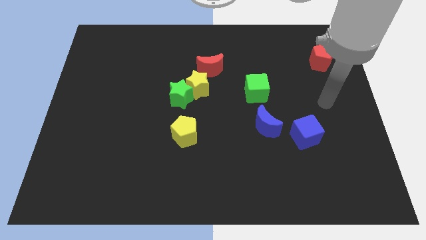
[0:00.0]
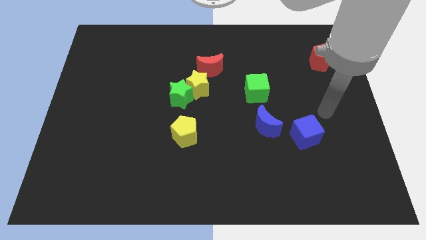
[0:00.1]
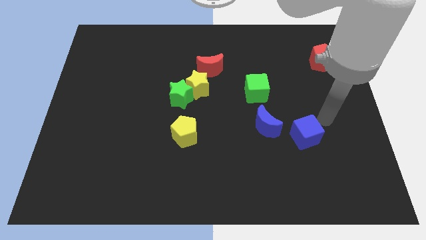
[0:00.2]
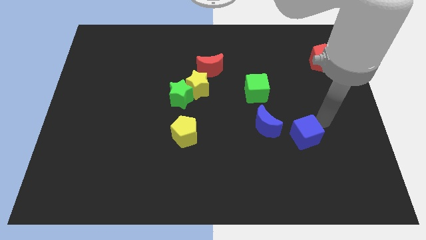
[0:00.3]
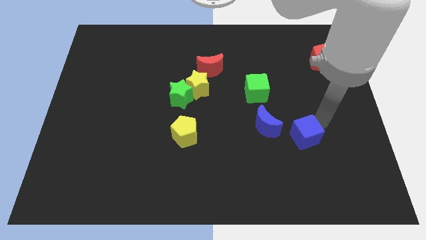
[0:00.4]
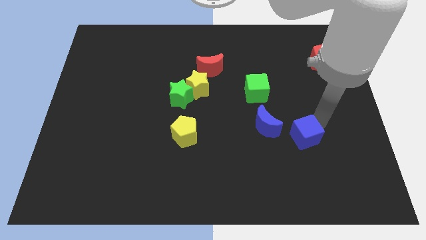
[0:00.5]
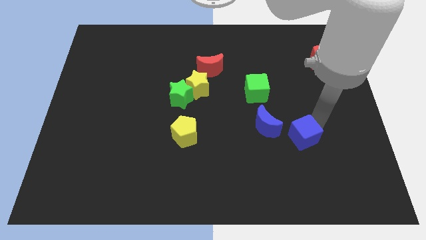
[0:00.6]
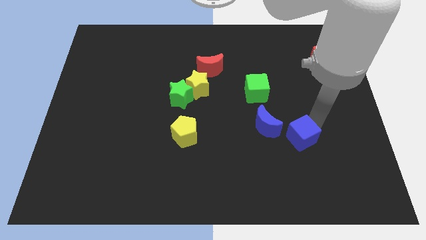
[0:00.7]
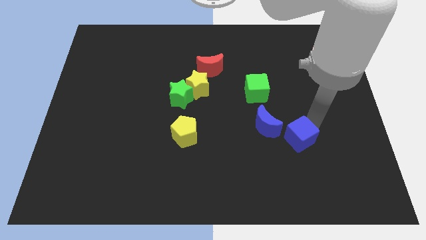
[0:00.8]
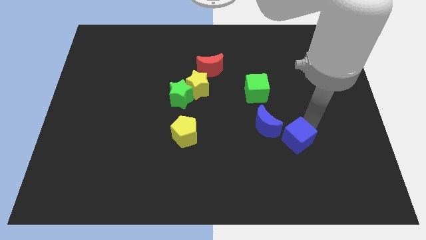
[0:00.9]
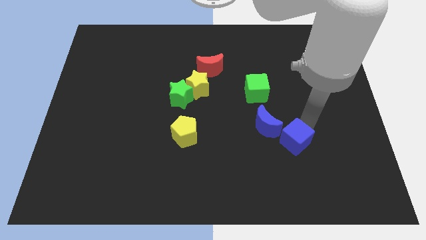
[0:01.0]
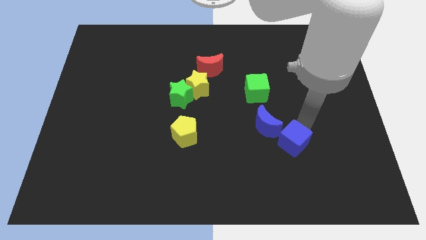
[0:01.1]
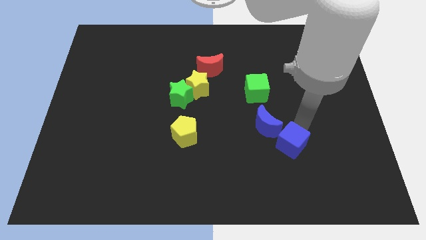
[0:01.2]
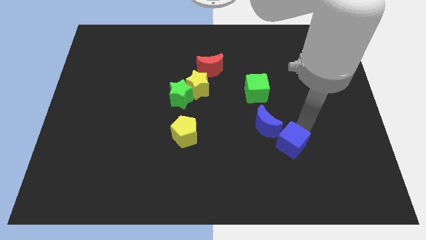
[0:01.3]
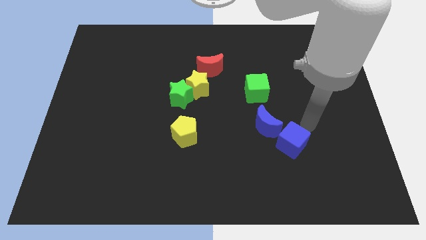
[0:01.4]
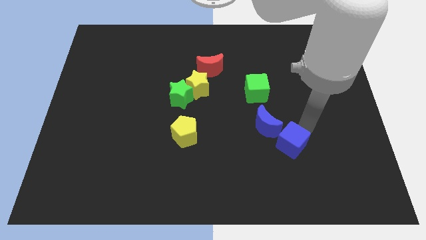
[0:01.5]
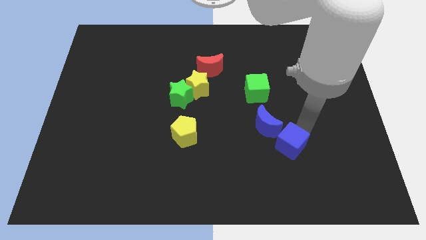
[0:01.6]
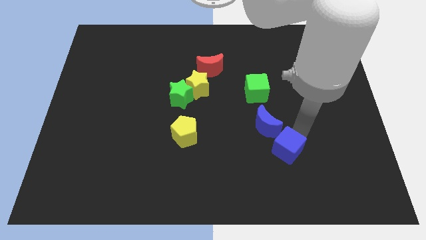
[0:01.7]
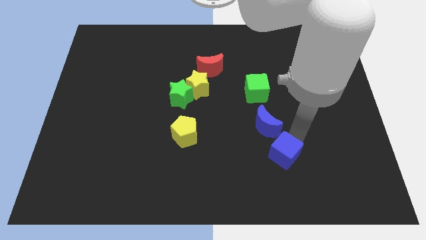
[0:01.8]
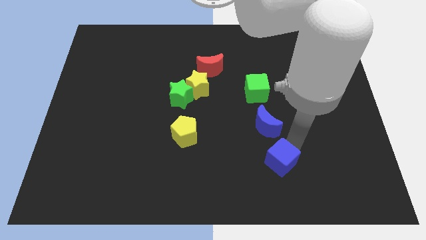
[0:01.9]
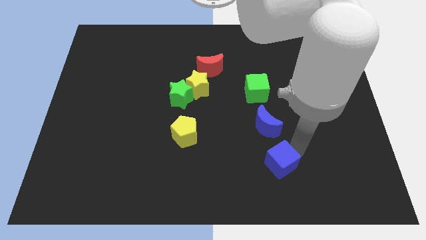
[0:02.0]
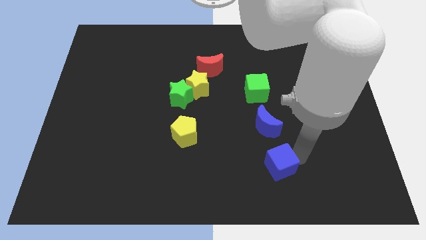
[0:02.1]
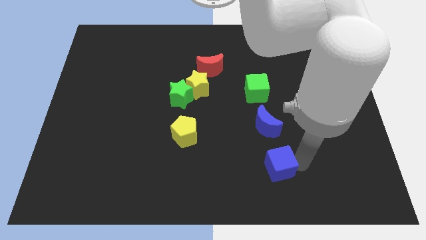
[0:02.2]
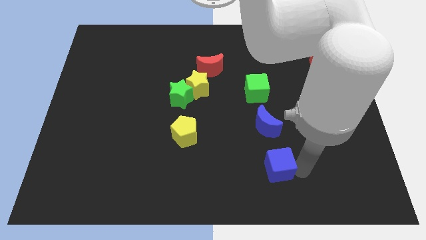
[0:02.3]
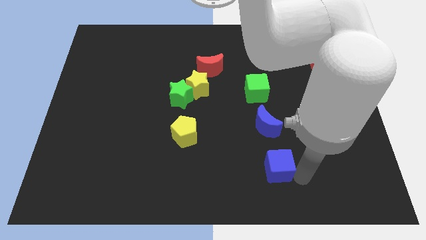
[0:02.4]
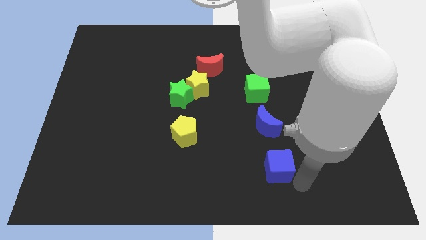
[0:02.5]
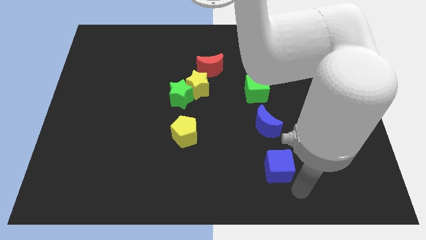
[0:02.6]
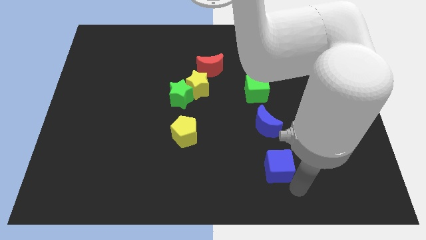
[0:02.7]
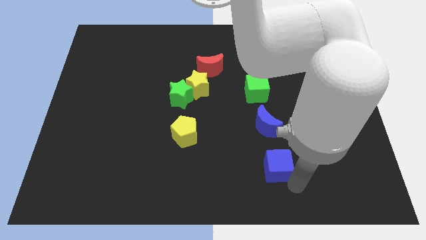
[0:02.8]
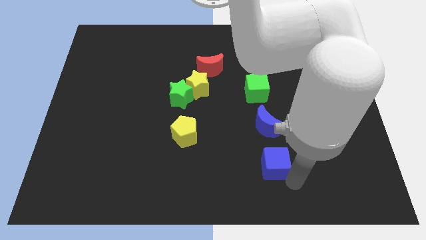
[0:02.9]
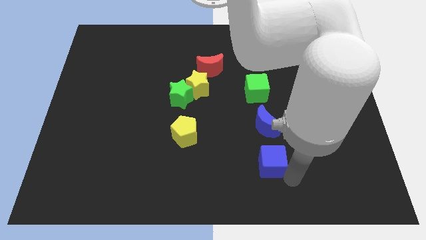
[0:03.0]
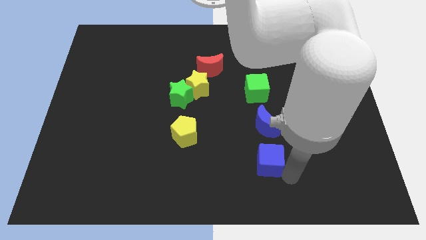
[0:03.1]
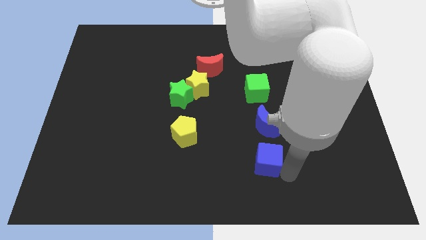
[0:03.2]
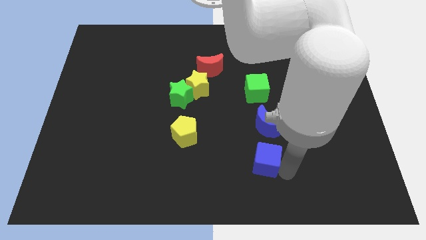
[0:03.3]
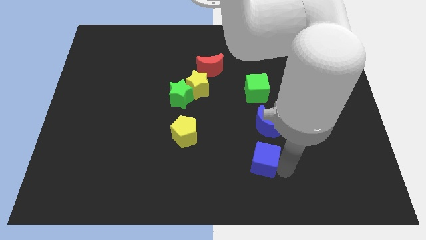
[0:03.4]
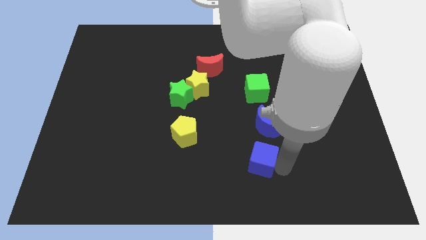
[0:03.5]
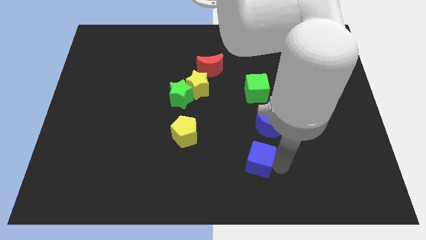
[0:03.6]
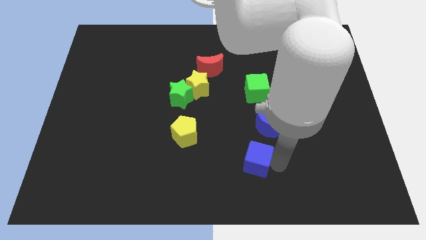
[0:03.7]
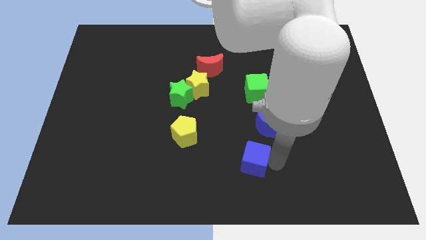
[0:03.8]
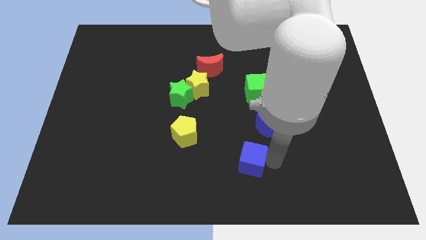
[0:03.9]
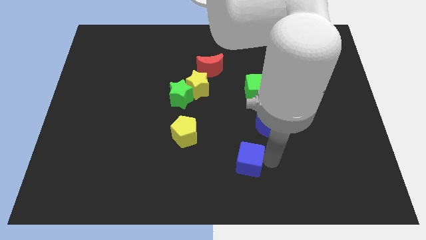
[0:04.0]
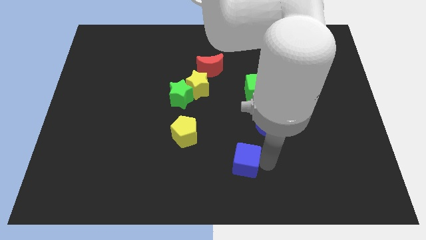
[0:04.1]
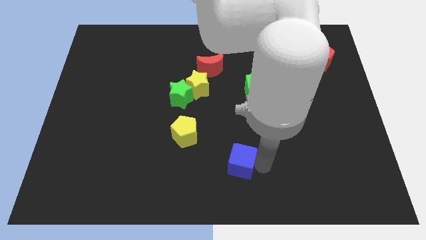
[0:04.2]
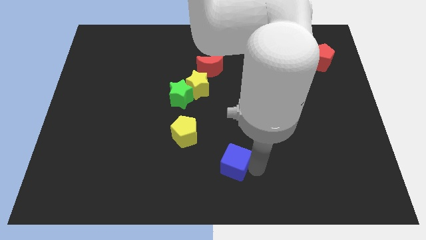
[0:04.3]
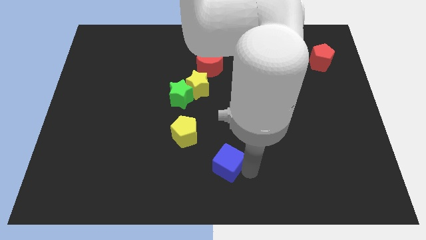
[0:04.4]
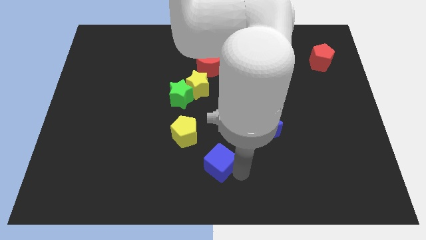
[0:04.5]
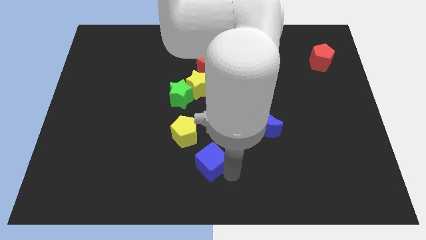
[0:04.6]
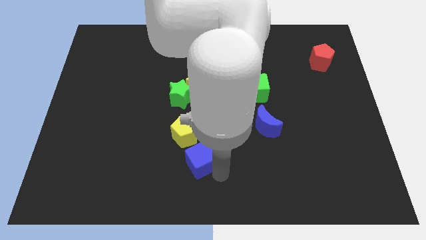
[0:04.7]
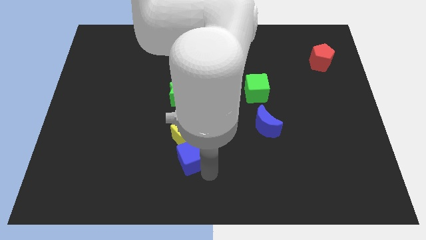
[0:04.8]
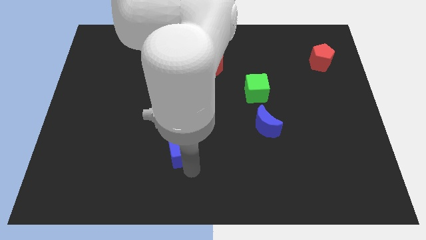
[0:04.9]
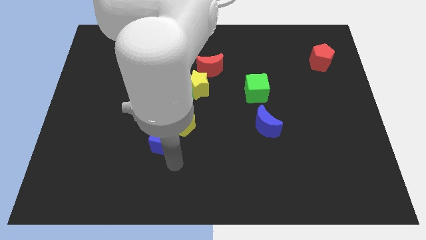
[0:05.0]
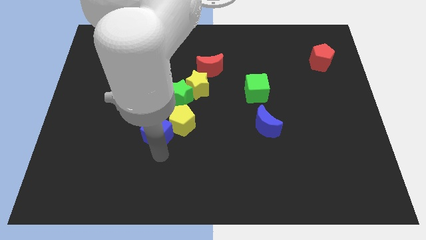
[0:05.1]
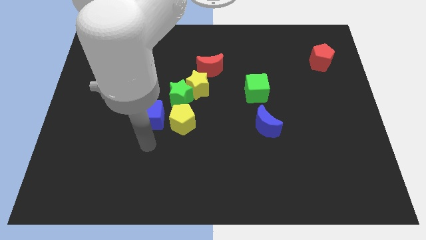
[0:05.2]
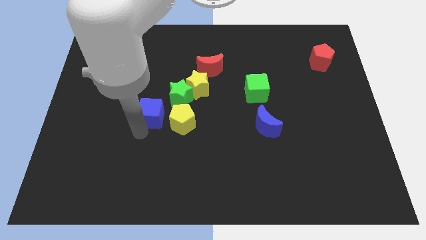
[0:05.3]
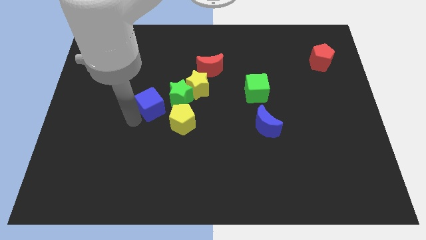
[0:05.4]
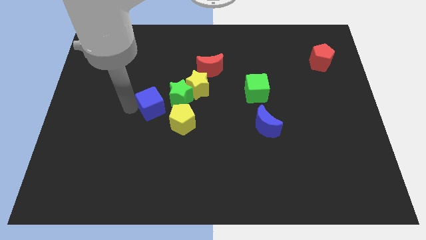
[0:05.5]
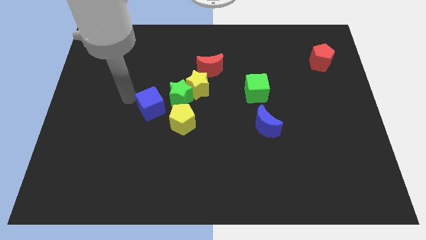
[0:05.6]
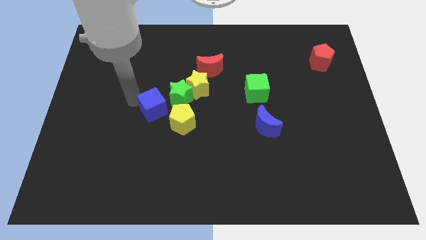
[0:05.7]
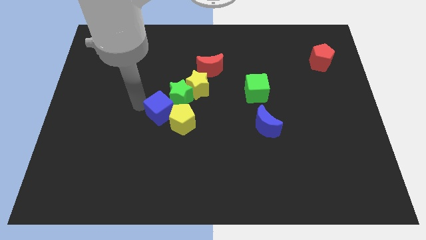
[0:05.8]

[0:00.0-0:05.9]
move the blue cube close to the green star

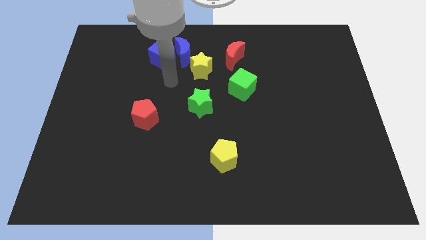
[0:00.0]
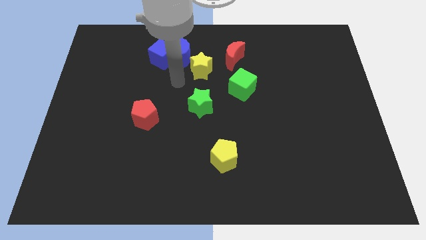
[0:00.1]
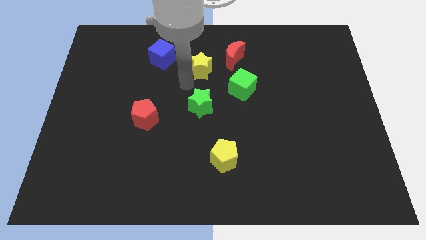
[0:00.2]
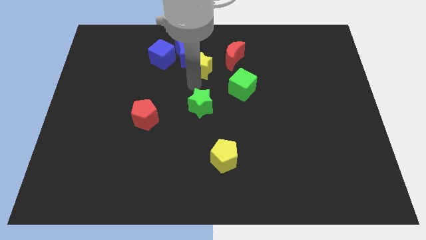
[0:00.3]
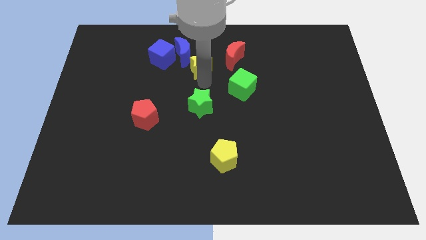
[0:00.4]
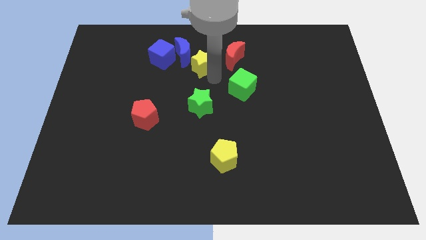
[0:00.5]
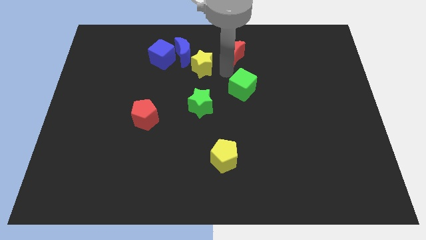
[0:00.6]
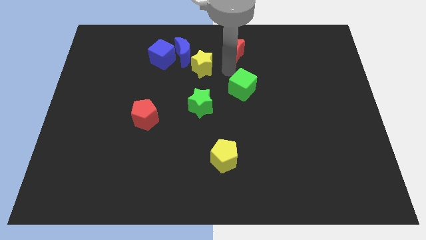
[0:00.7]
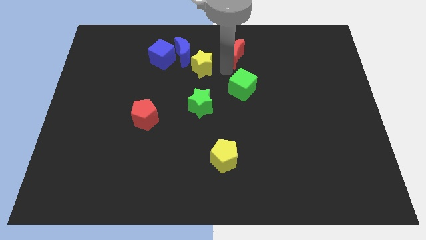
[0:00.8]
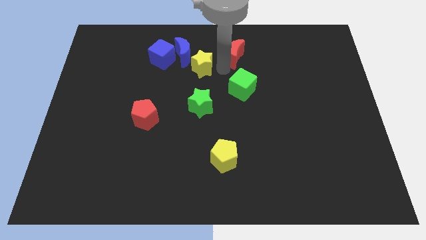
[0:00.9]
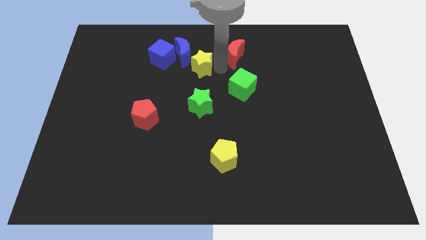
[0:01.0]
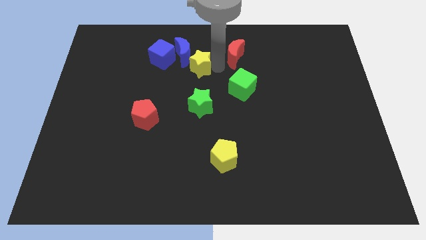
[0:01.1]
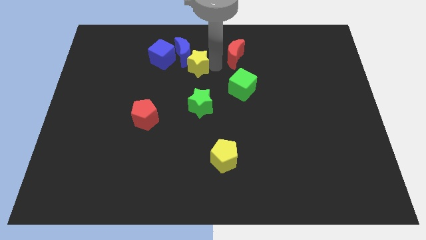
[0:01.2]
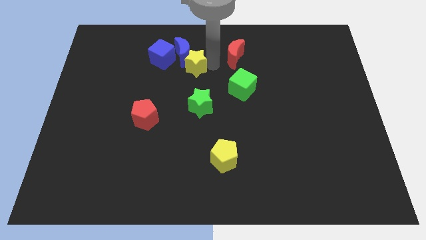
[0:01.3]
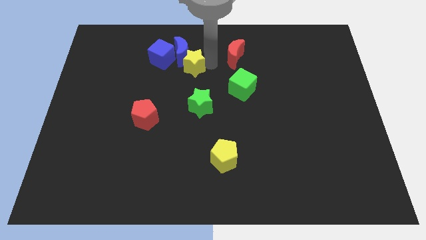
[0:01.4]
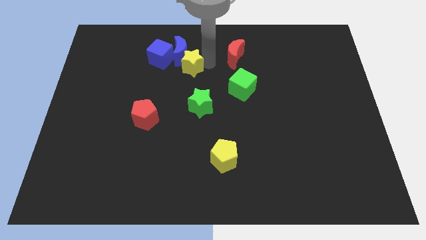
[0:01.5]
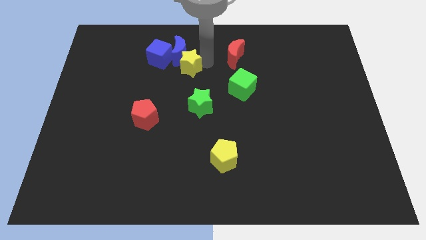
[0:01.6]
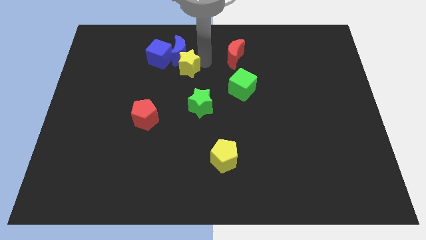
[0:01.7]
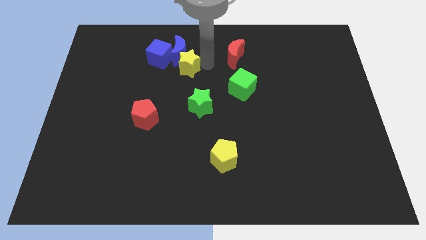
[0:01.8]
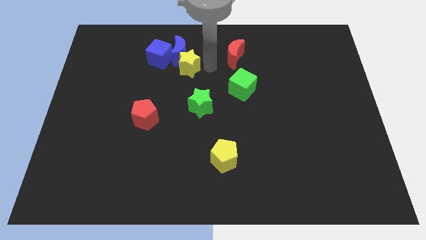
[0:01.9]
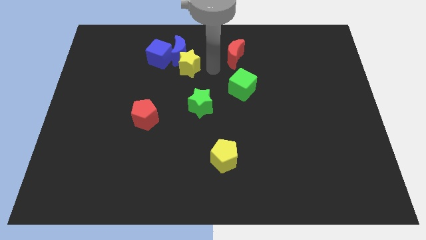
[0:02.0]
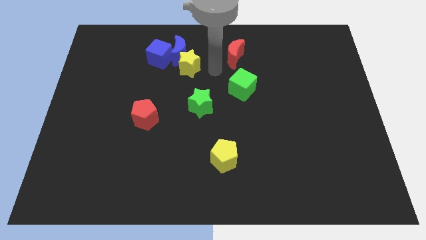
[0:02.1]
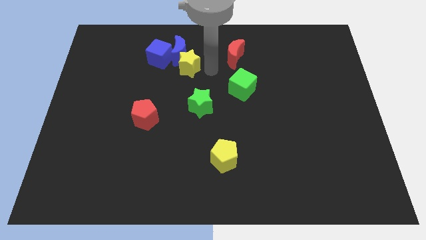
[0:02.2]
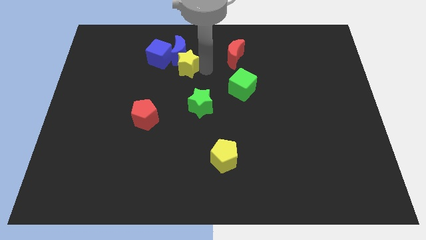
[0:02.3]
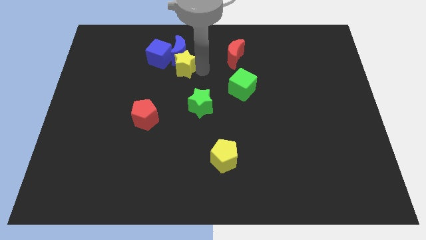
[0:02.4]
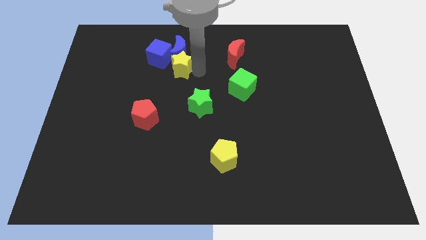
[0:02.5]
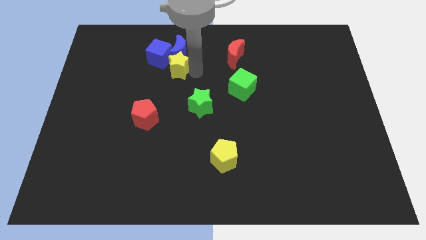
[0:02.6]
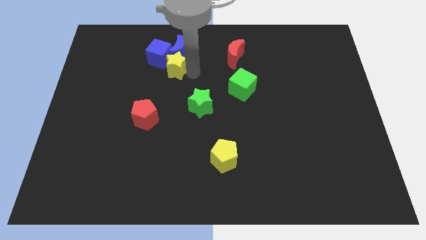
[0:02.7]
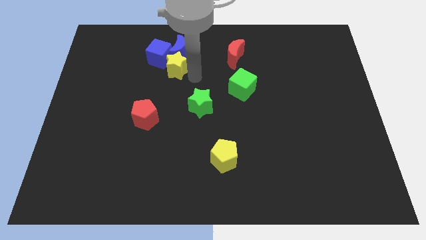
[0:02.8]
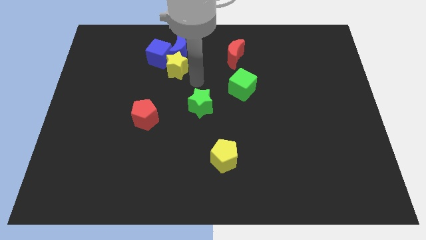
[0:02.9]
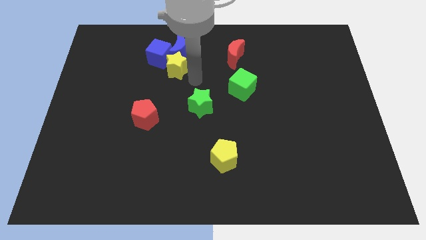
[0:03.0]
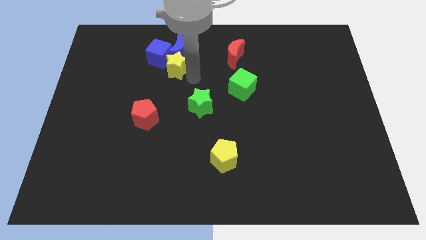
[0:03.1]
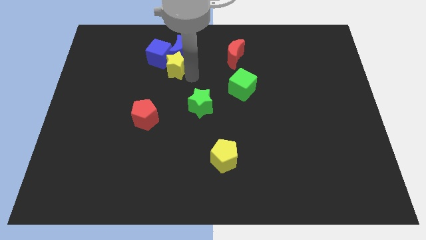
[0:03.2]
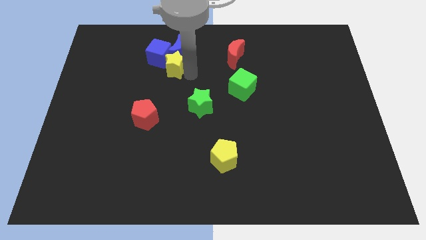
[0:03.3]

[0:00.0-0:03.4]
push the yellow star to the blue cube
